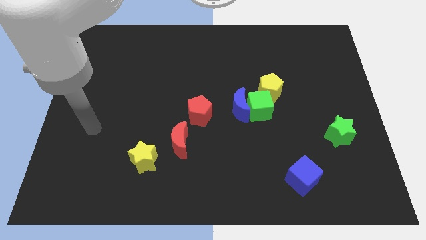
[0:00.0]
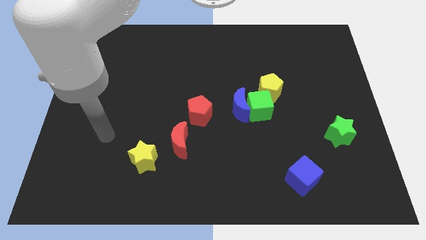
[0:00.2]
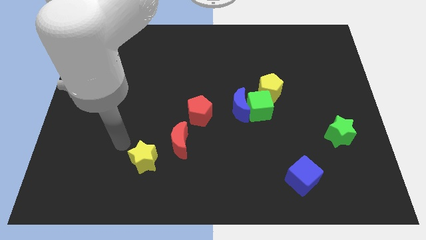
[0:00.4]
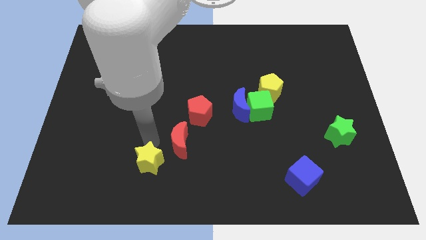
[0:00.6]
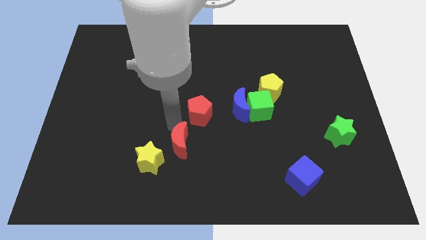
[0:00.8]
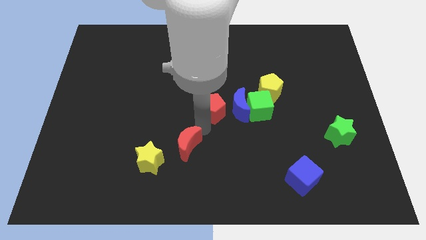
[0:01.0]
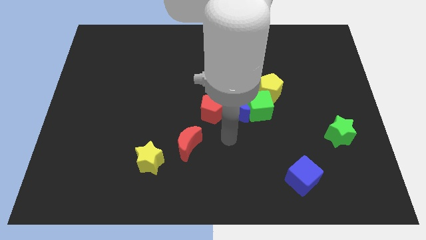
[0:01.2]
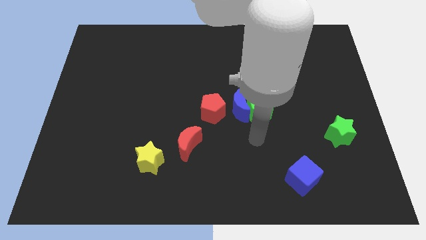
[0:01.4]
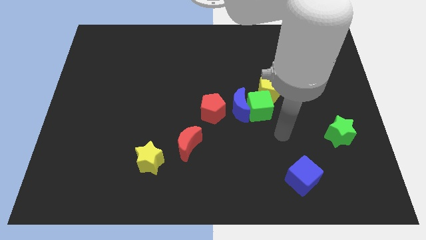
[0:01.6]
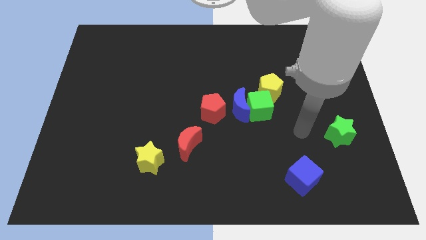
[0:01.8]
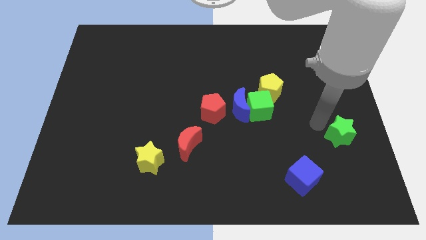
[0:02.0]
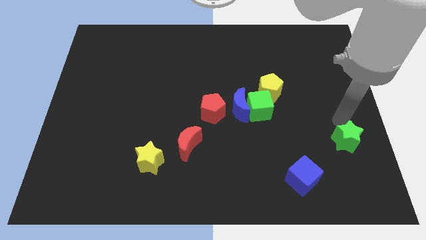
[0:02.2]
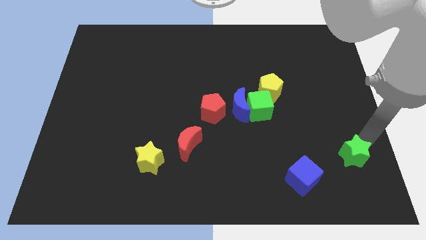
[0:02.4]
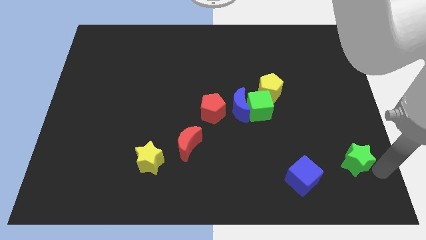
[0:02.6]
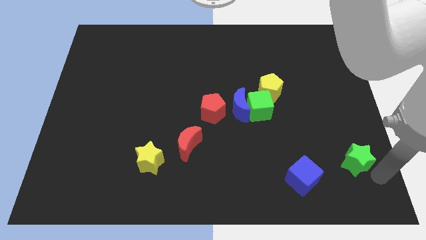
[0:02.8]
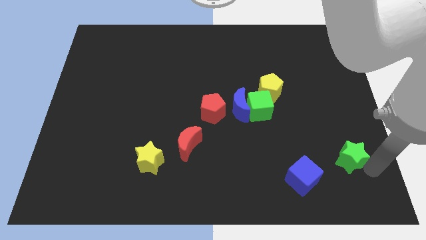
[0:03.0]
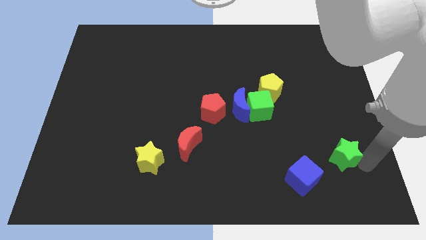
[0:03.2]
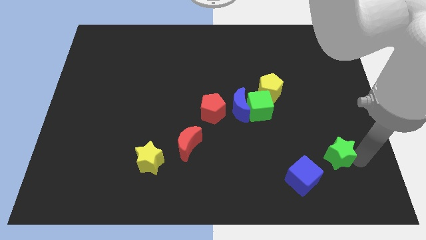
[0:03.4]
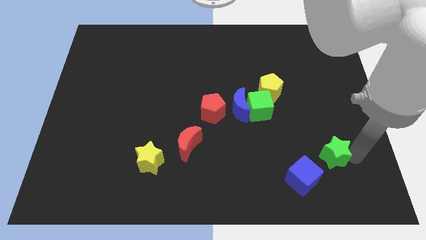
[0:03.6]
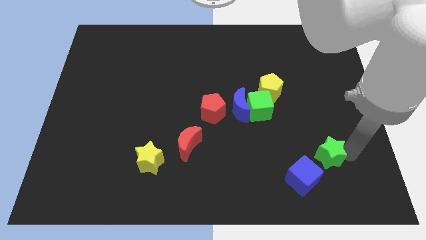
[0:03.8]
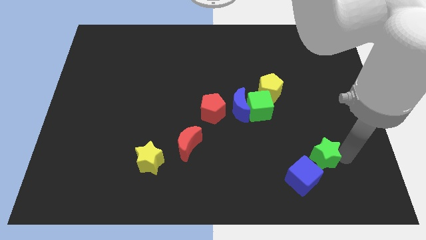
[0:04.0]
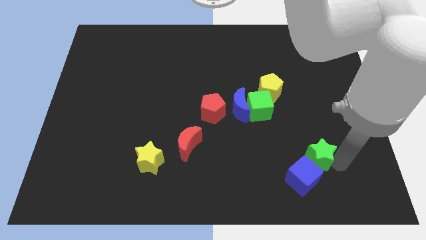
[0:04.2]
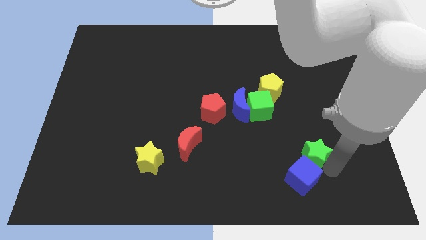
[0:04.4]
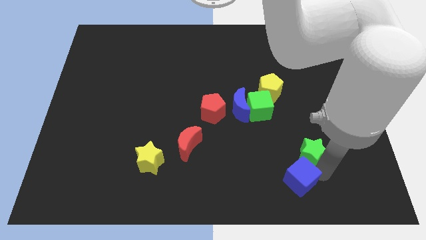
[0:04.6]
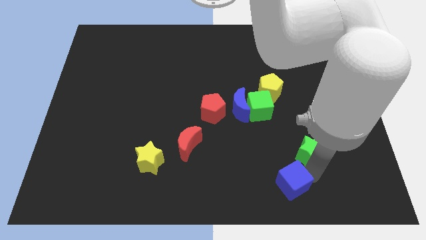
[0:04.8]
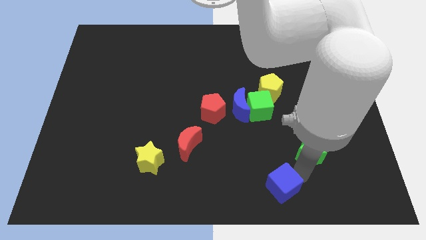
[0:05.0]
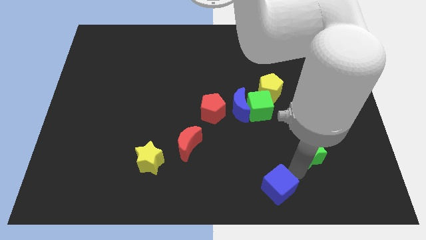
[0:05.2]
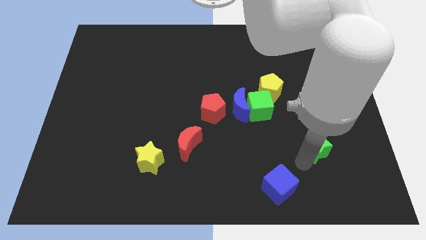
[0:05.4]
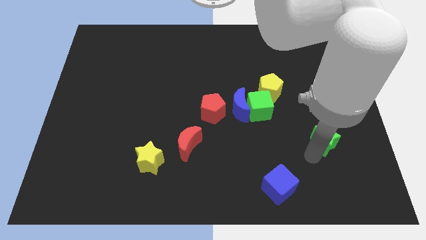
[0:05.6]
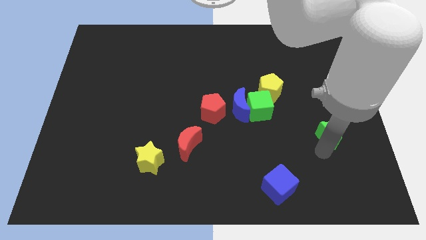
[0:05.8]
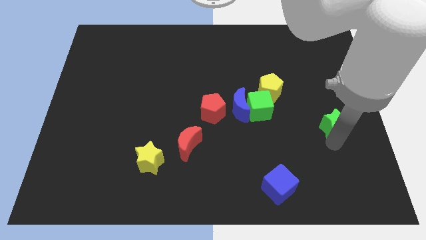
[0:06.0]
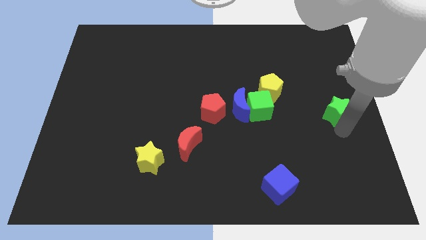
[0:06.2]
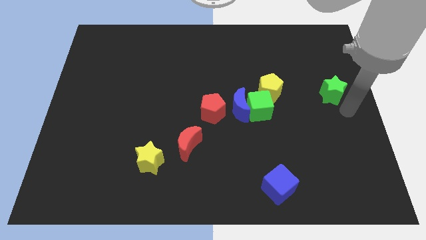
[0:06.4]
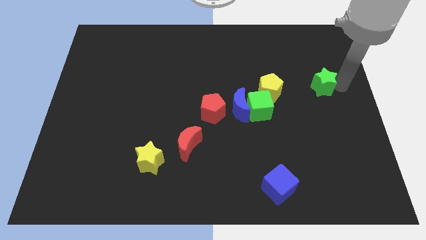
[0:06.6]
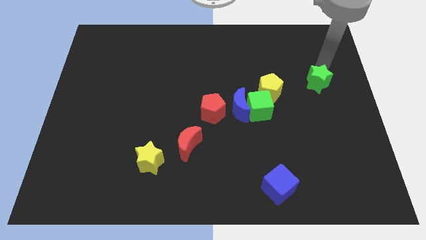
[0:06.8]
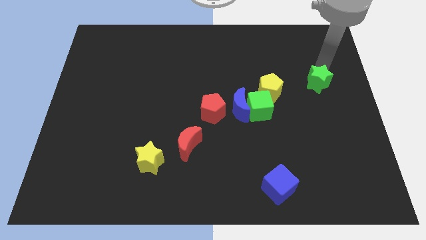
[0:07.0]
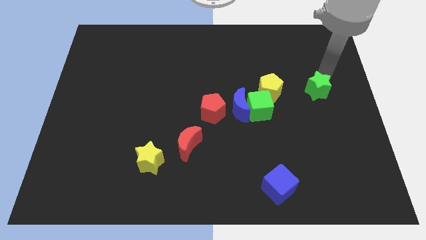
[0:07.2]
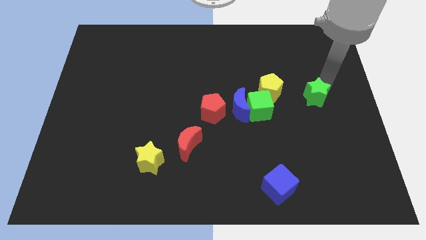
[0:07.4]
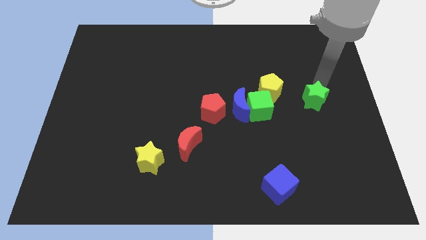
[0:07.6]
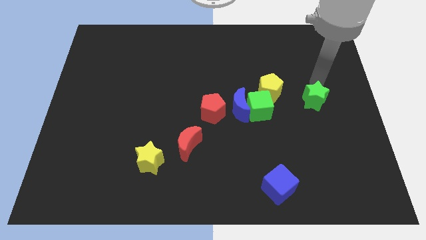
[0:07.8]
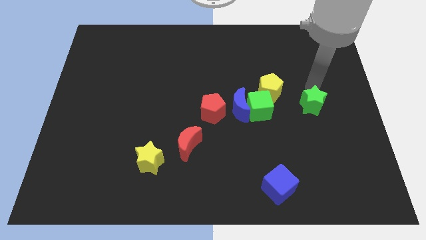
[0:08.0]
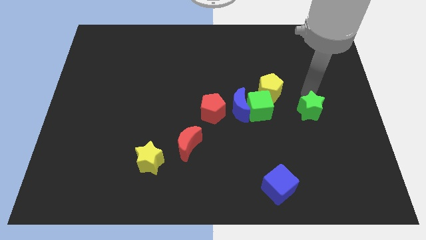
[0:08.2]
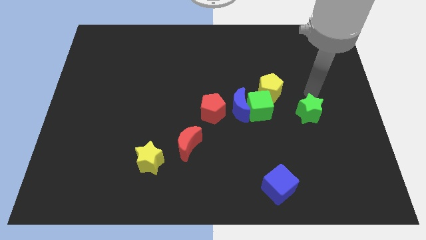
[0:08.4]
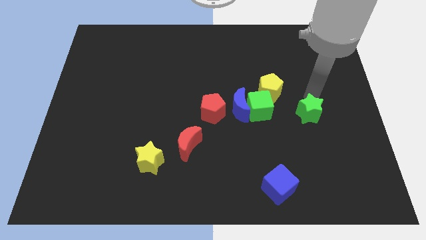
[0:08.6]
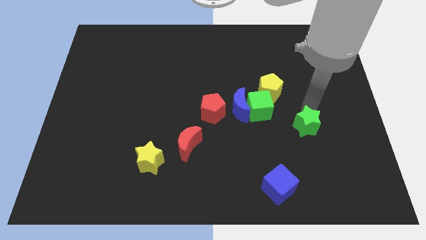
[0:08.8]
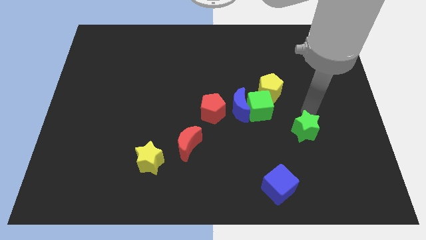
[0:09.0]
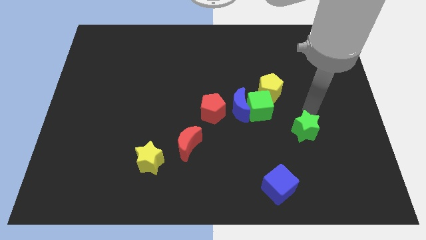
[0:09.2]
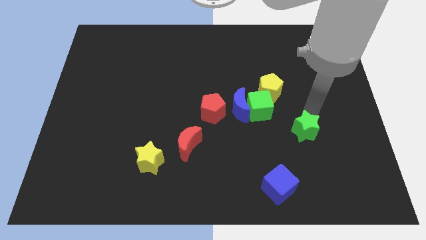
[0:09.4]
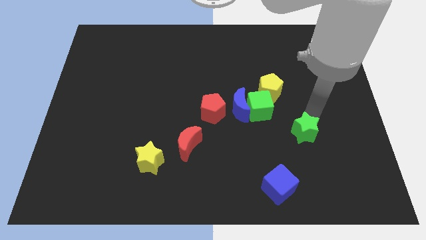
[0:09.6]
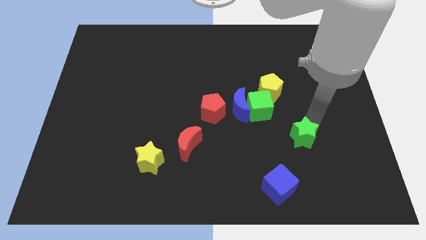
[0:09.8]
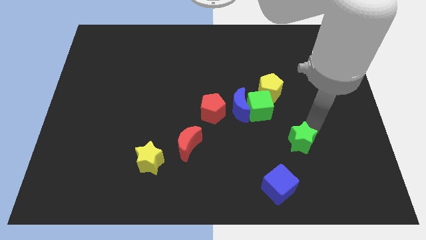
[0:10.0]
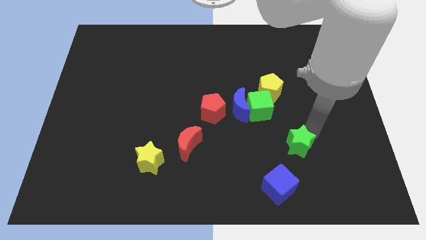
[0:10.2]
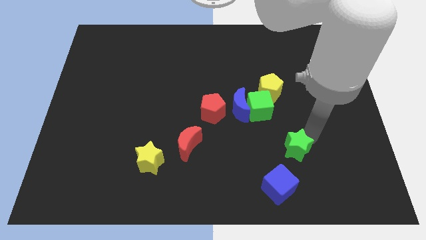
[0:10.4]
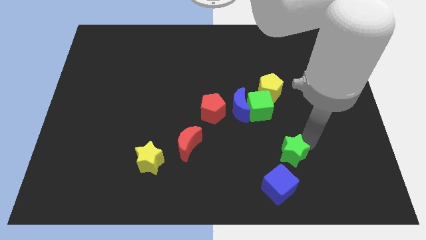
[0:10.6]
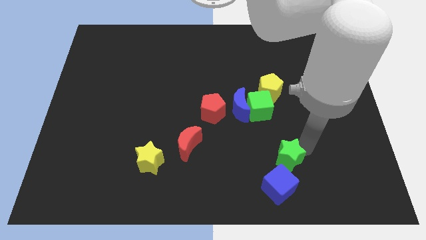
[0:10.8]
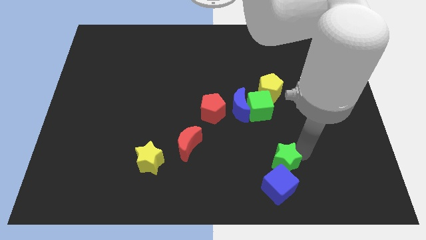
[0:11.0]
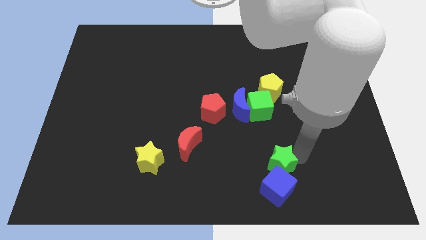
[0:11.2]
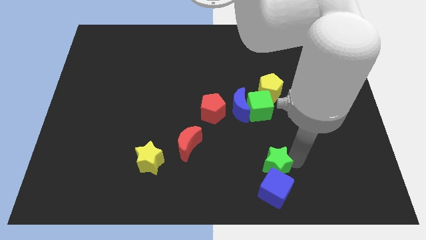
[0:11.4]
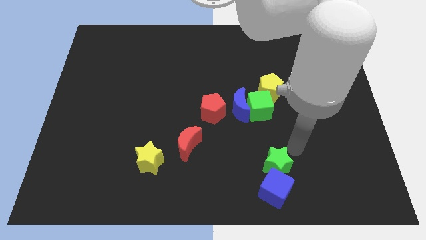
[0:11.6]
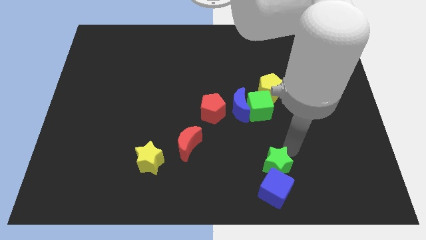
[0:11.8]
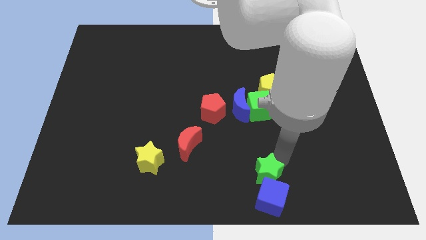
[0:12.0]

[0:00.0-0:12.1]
put the green star to the bottom

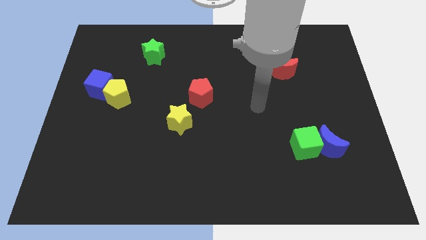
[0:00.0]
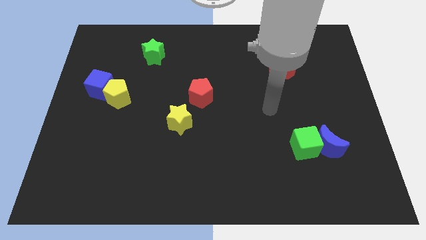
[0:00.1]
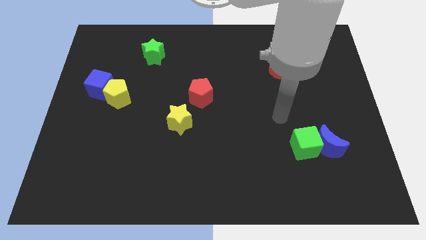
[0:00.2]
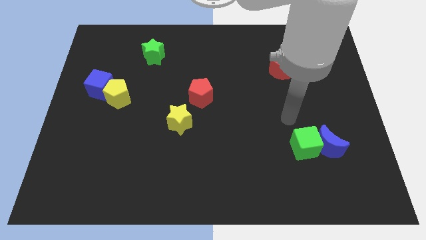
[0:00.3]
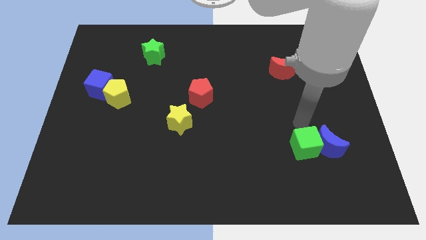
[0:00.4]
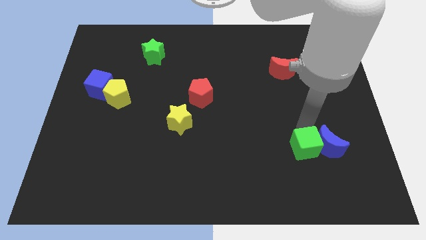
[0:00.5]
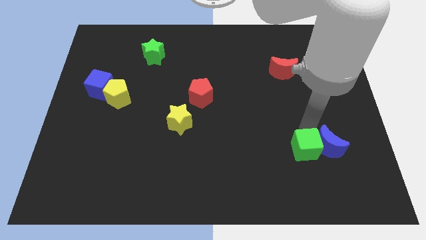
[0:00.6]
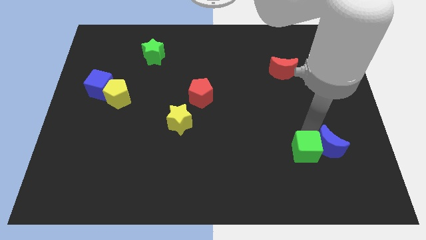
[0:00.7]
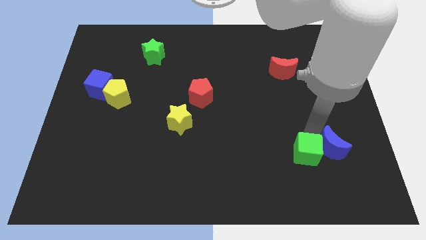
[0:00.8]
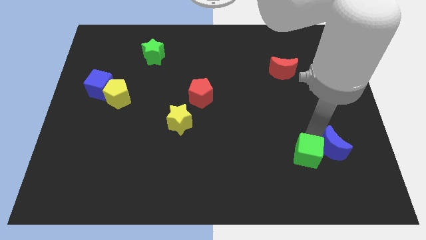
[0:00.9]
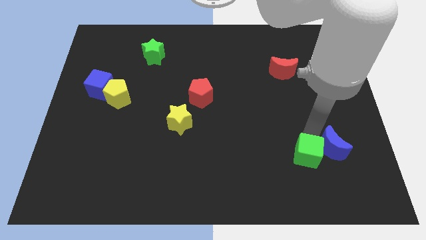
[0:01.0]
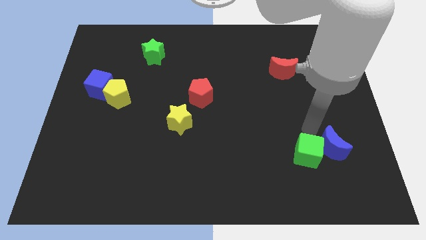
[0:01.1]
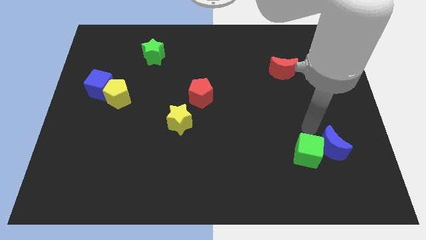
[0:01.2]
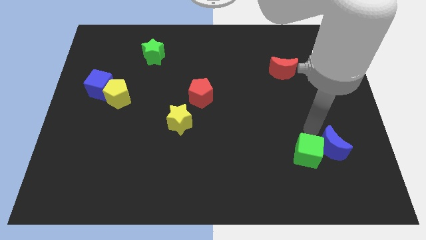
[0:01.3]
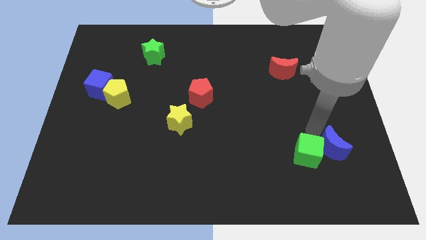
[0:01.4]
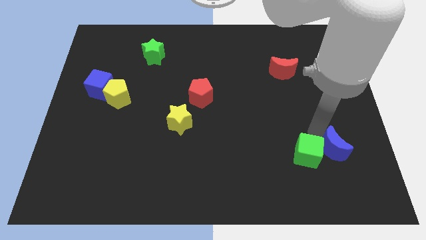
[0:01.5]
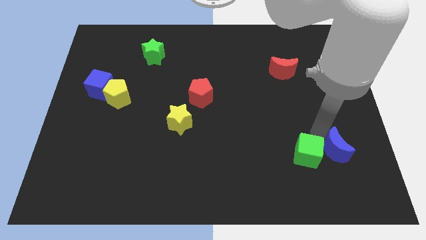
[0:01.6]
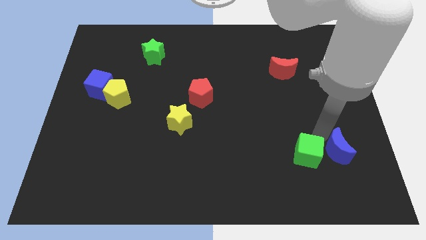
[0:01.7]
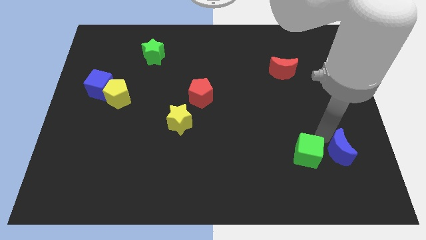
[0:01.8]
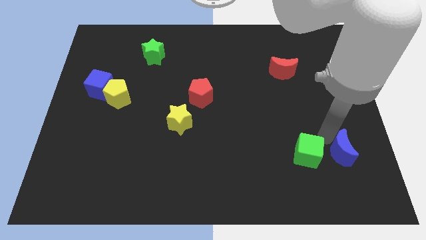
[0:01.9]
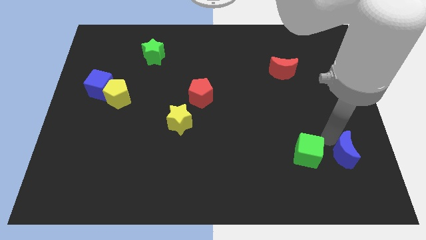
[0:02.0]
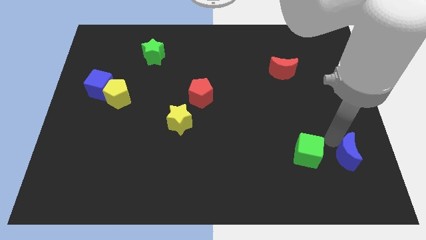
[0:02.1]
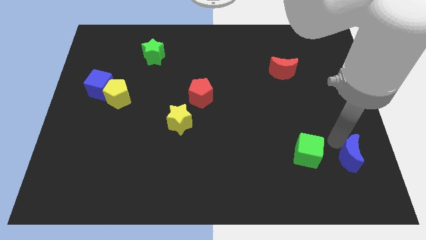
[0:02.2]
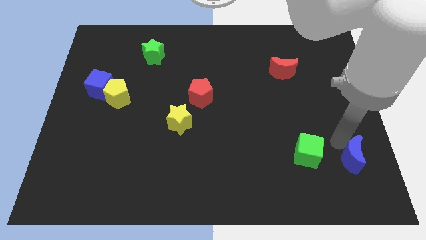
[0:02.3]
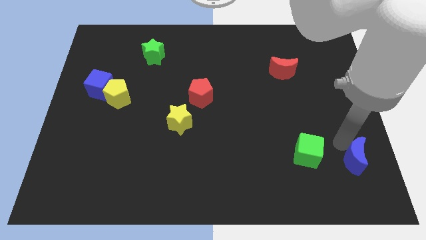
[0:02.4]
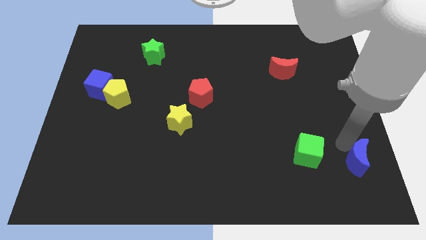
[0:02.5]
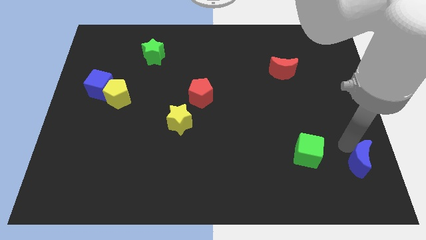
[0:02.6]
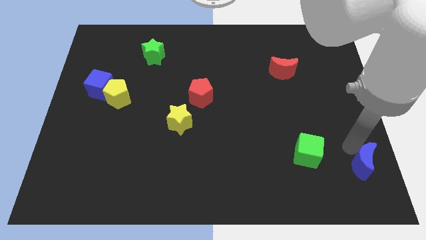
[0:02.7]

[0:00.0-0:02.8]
move the blue moon to the bottom right corner
